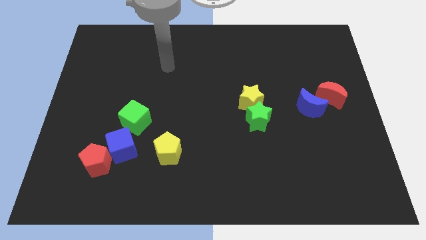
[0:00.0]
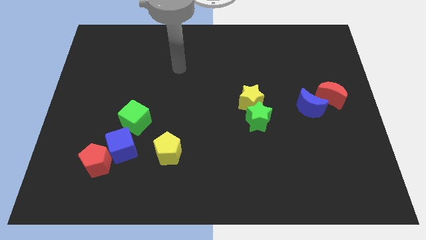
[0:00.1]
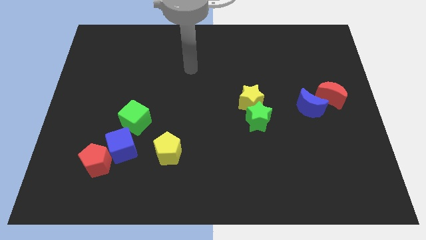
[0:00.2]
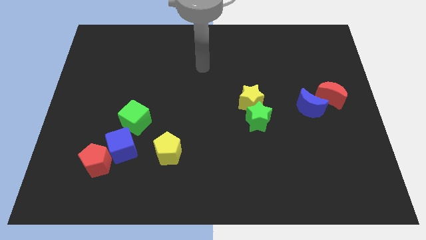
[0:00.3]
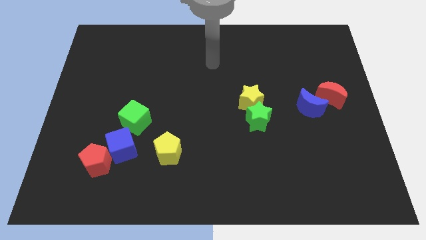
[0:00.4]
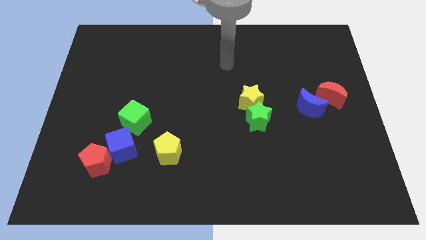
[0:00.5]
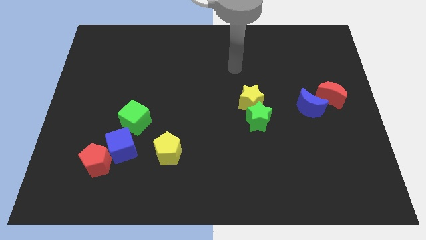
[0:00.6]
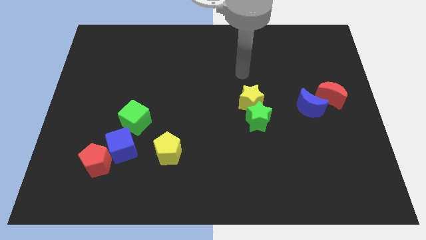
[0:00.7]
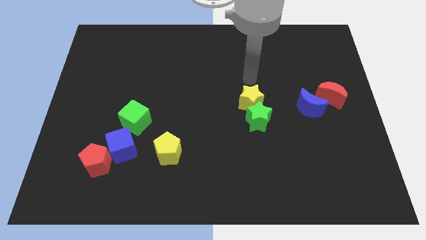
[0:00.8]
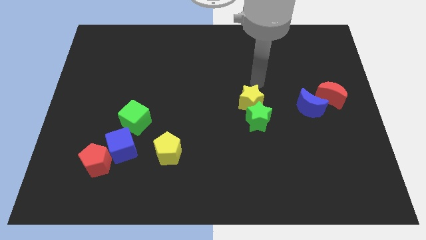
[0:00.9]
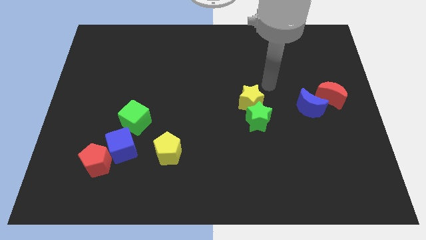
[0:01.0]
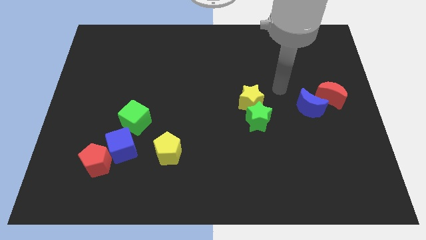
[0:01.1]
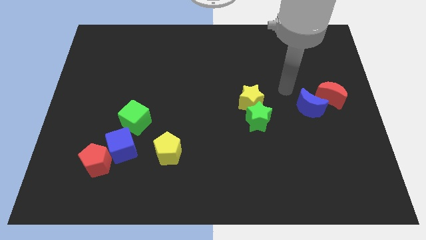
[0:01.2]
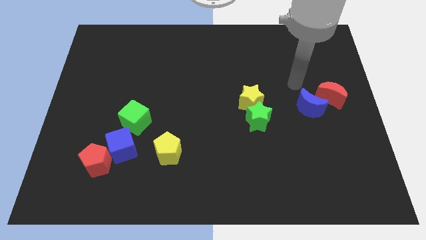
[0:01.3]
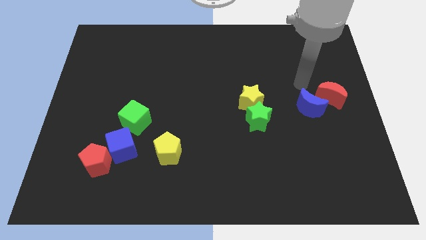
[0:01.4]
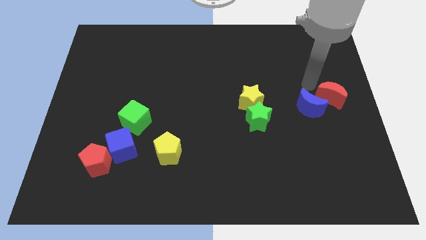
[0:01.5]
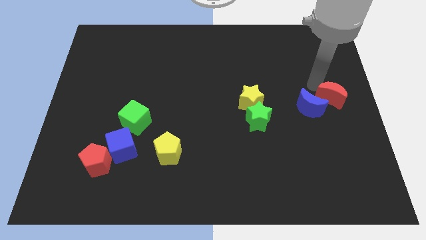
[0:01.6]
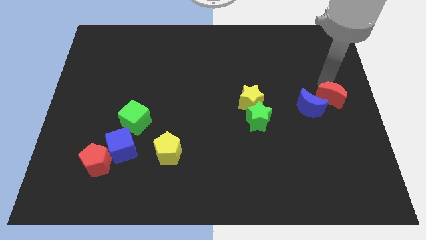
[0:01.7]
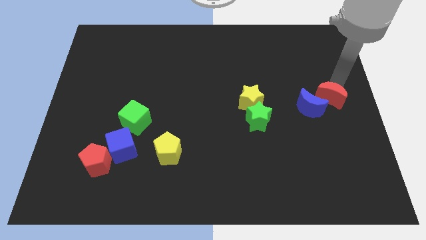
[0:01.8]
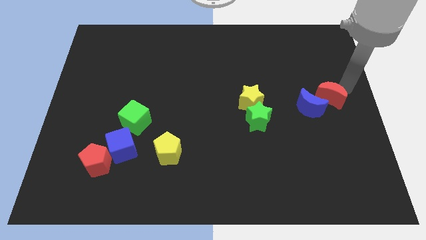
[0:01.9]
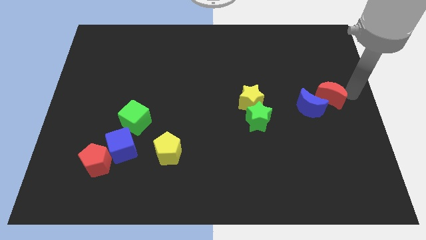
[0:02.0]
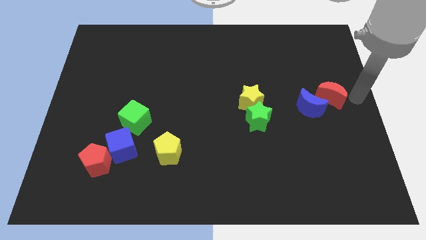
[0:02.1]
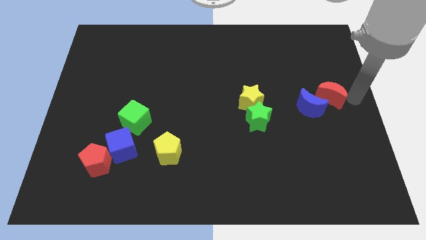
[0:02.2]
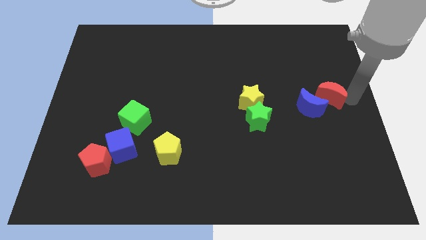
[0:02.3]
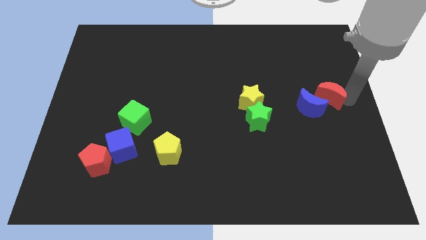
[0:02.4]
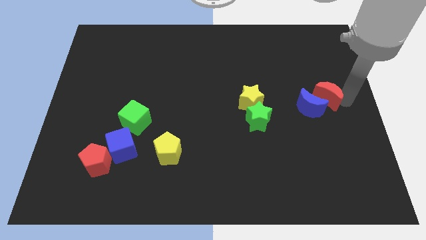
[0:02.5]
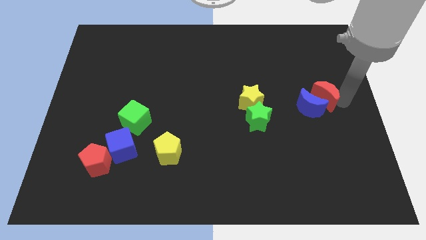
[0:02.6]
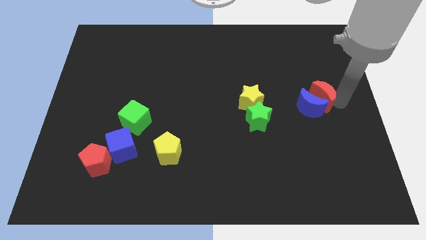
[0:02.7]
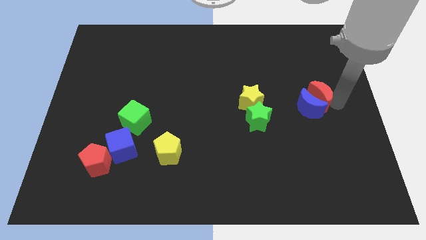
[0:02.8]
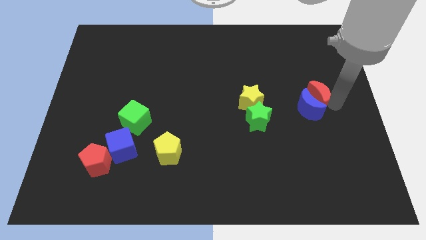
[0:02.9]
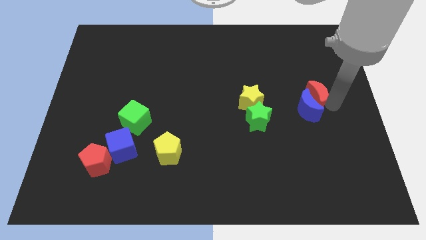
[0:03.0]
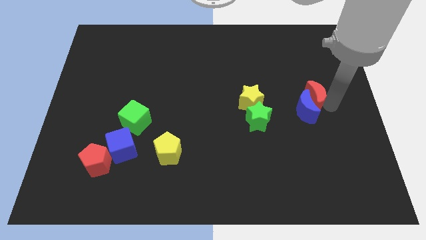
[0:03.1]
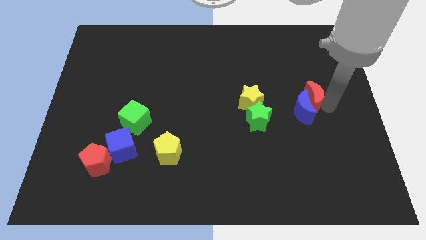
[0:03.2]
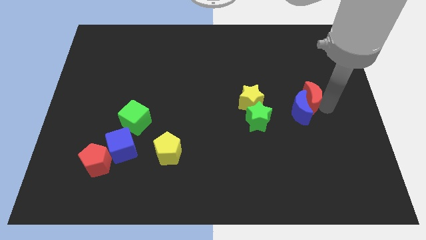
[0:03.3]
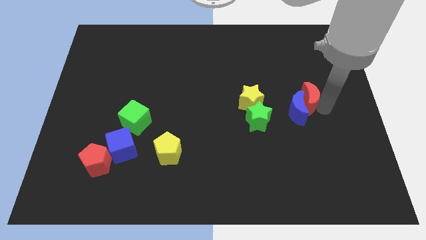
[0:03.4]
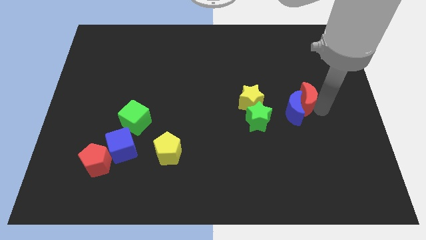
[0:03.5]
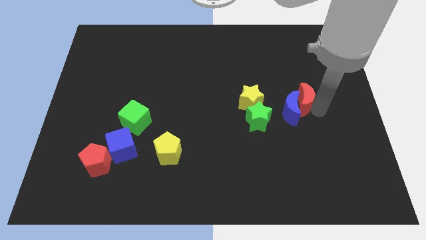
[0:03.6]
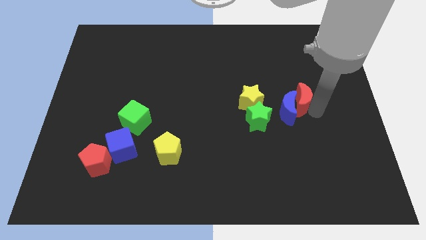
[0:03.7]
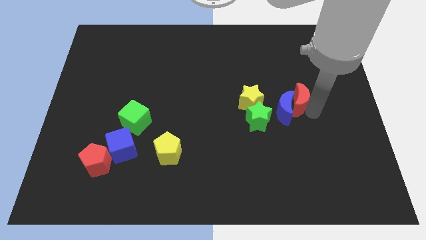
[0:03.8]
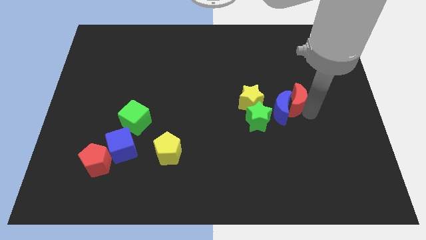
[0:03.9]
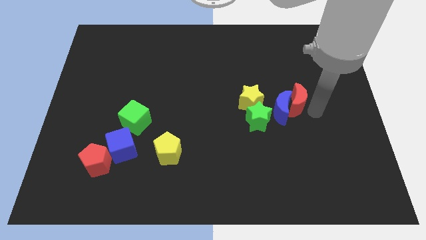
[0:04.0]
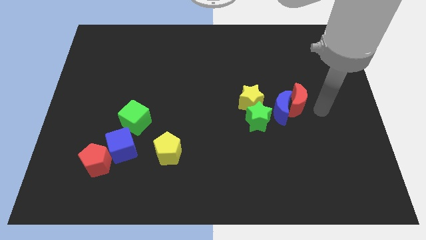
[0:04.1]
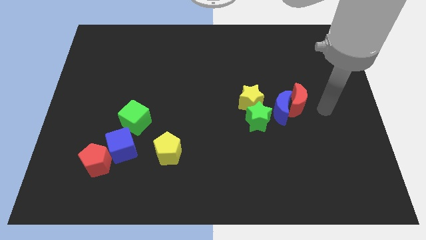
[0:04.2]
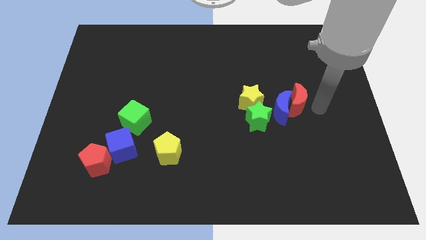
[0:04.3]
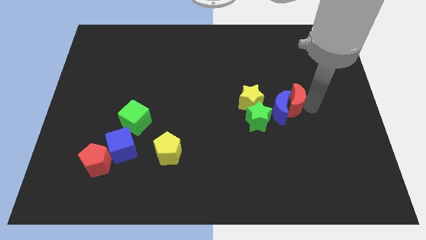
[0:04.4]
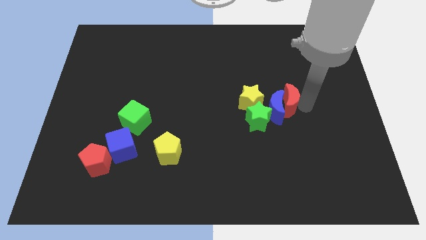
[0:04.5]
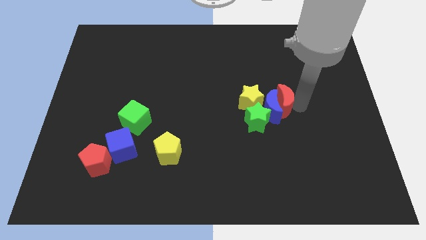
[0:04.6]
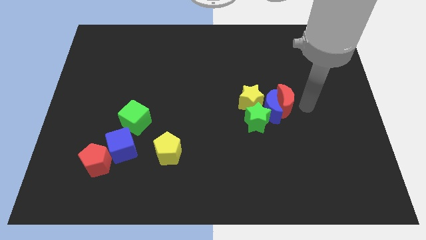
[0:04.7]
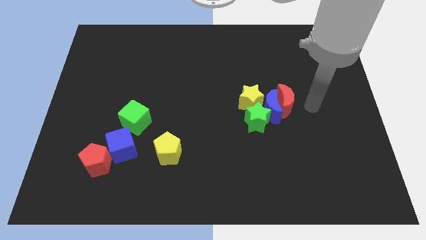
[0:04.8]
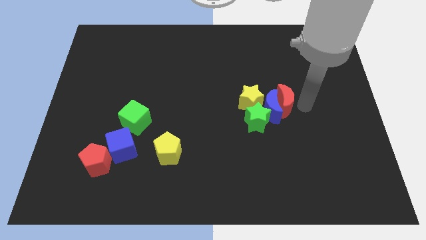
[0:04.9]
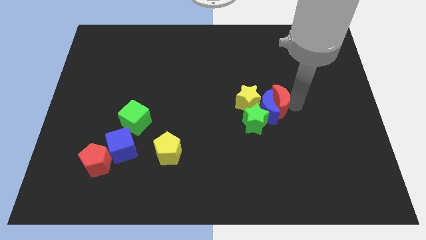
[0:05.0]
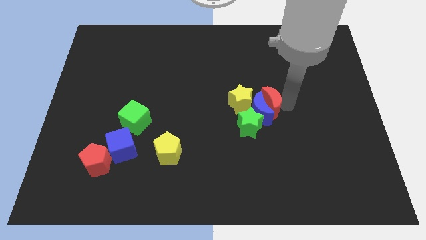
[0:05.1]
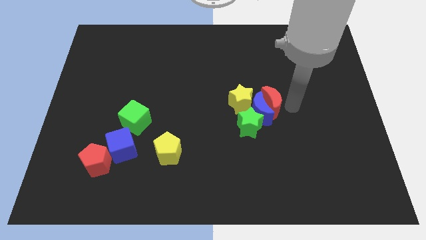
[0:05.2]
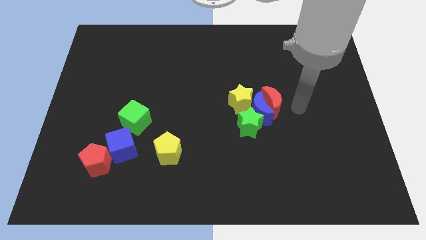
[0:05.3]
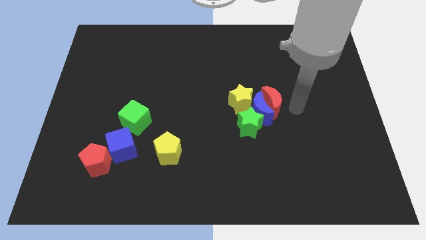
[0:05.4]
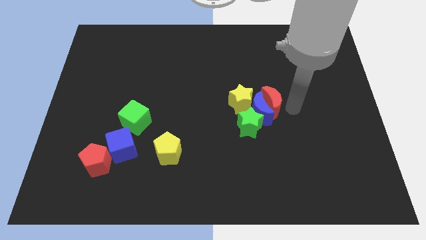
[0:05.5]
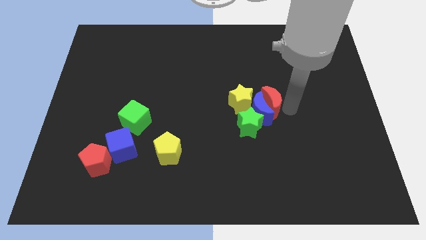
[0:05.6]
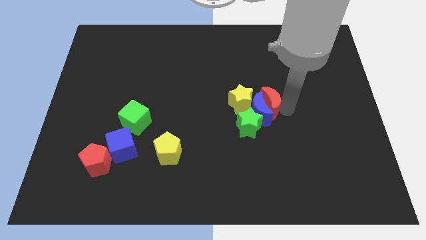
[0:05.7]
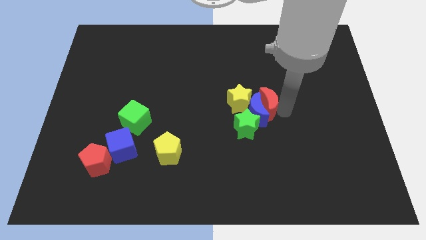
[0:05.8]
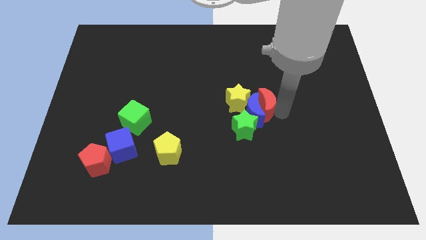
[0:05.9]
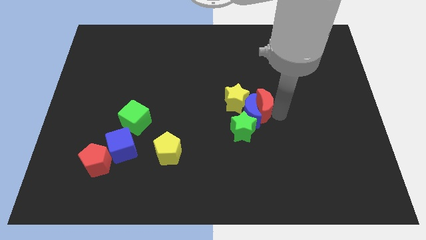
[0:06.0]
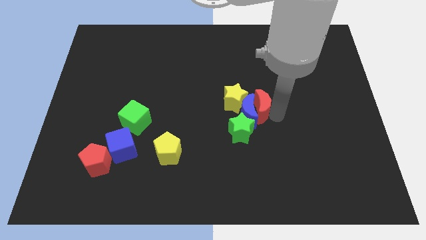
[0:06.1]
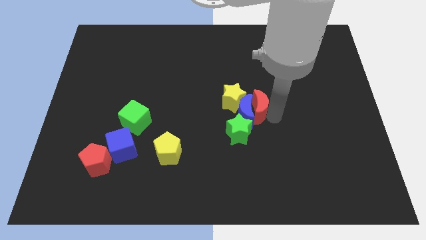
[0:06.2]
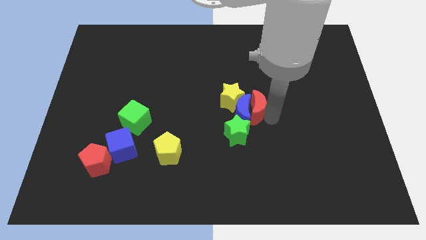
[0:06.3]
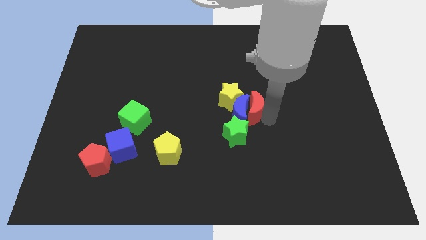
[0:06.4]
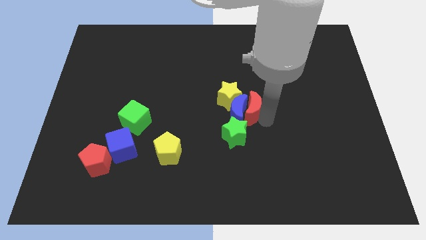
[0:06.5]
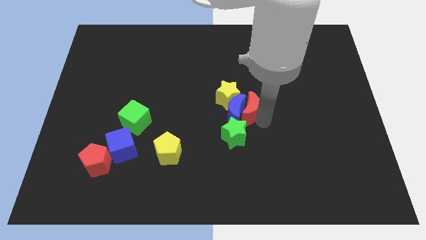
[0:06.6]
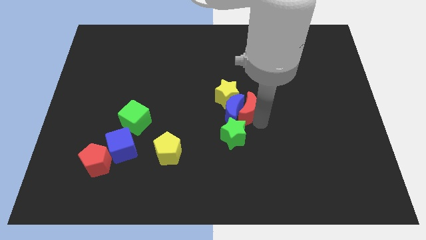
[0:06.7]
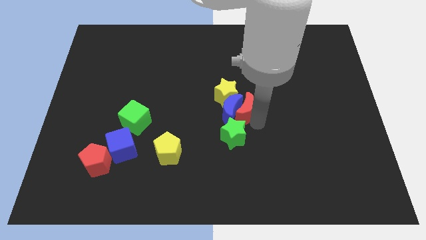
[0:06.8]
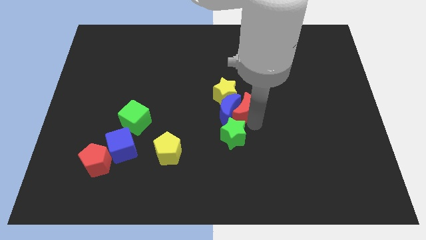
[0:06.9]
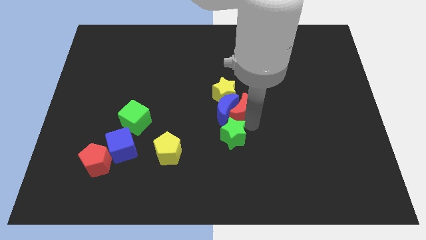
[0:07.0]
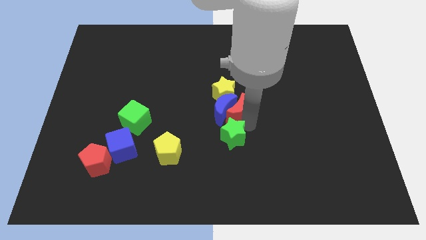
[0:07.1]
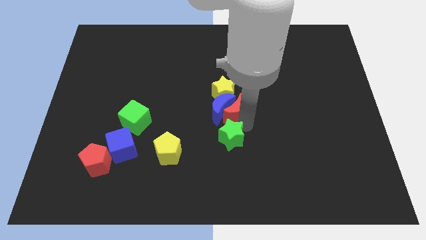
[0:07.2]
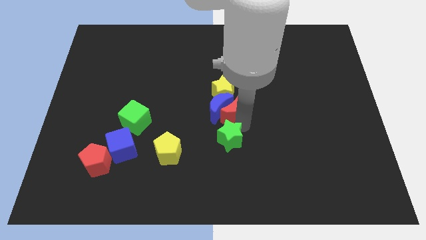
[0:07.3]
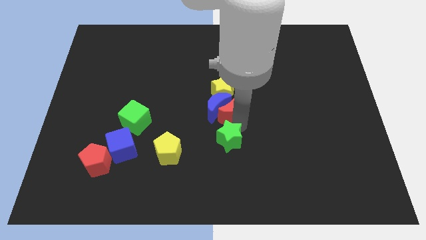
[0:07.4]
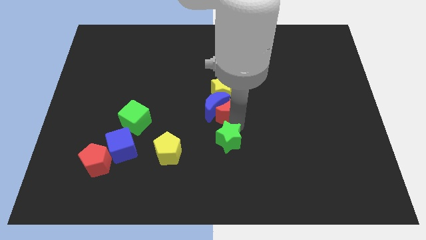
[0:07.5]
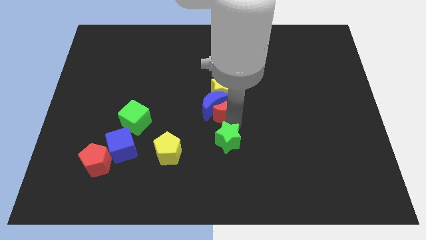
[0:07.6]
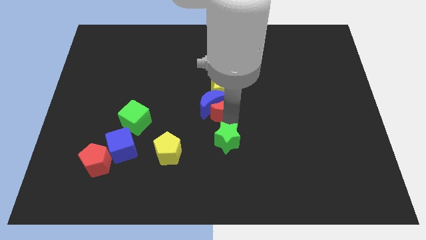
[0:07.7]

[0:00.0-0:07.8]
move the red moon close to the yellow star
